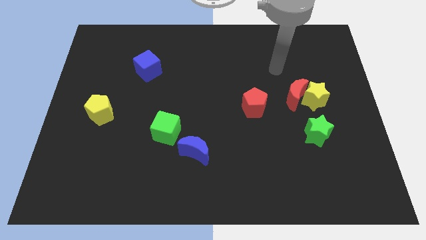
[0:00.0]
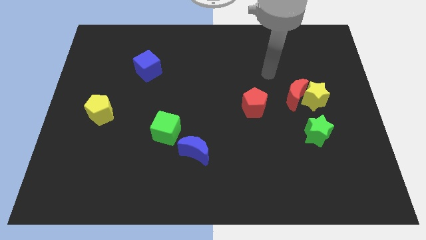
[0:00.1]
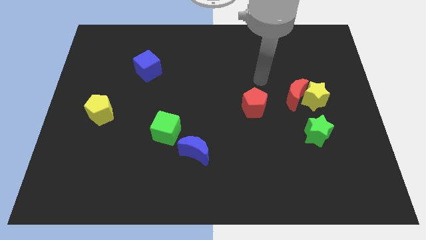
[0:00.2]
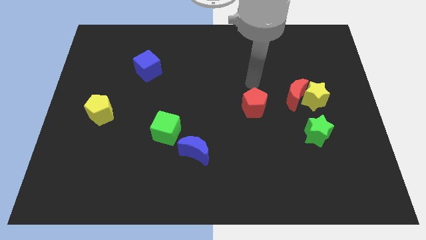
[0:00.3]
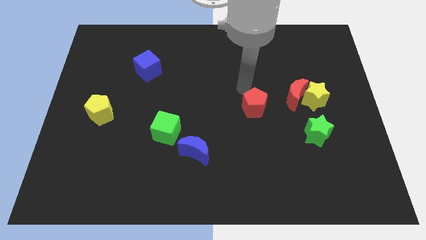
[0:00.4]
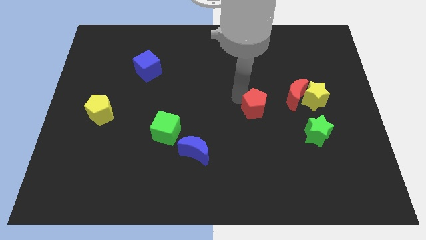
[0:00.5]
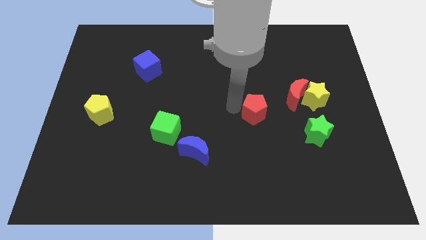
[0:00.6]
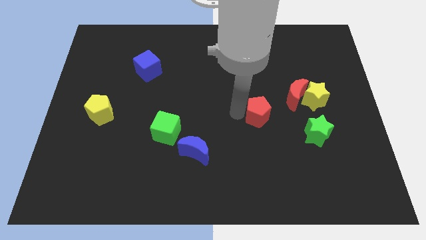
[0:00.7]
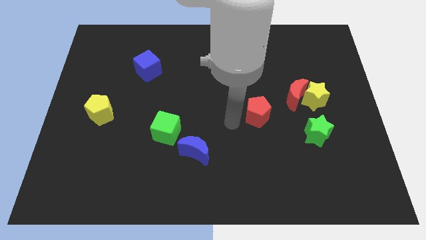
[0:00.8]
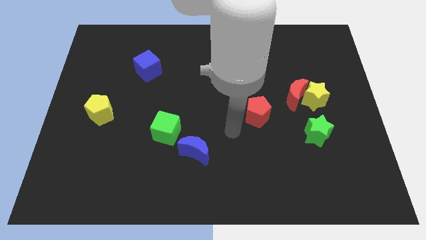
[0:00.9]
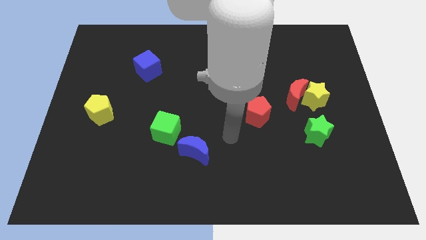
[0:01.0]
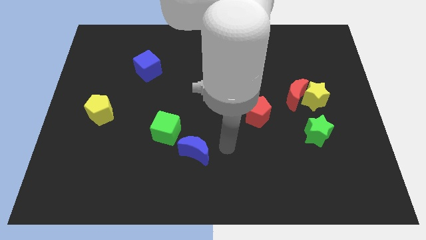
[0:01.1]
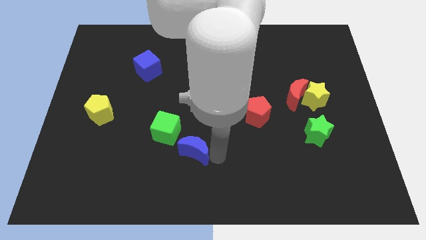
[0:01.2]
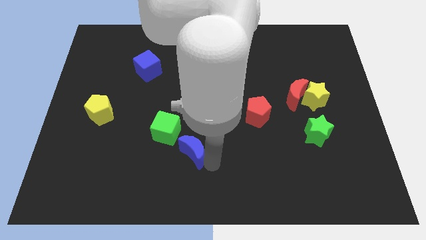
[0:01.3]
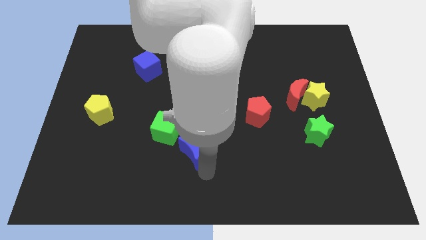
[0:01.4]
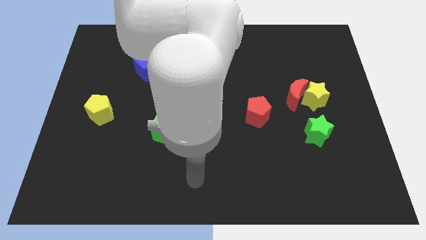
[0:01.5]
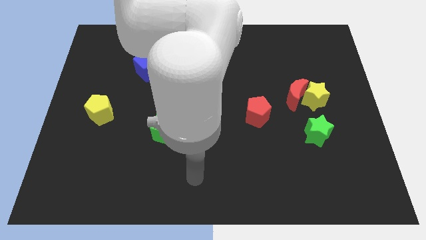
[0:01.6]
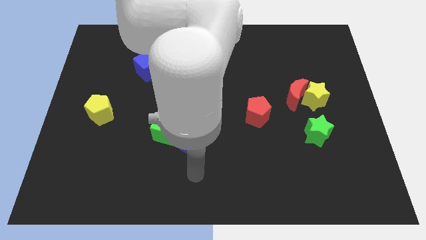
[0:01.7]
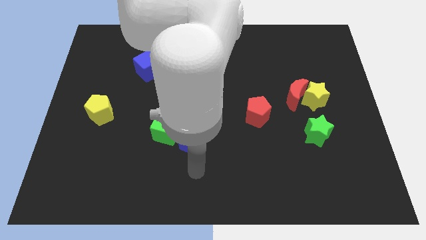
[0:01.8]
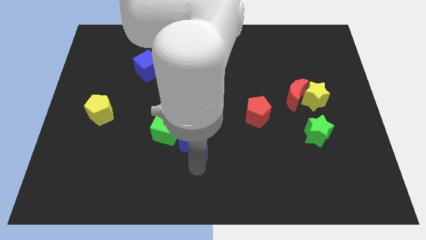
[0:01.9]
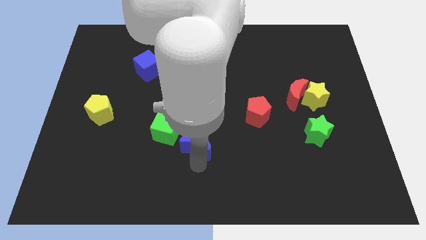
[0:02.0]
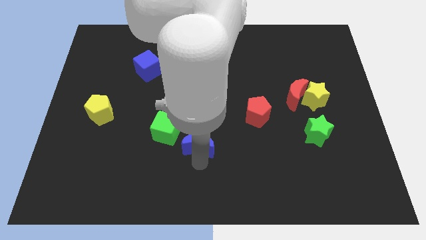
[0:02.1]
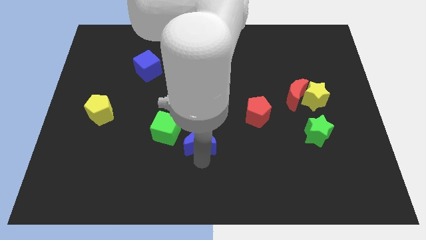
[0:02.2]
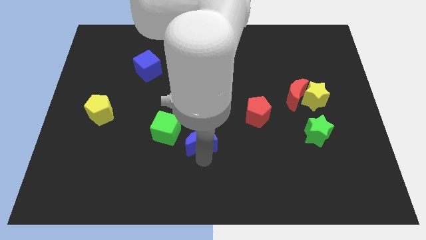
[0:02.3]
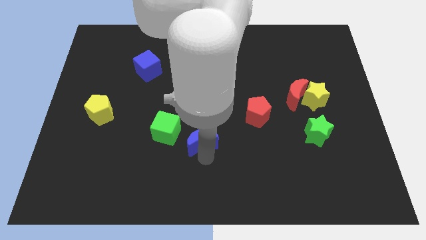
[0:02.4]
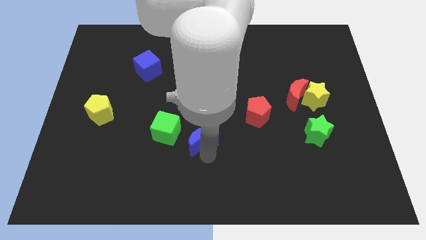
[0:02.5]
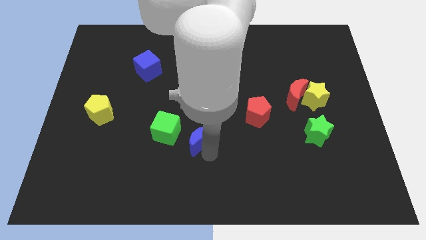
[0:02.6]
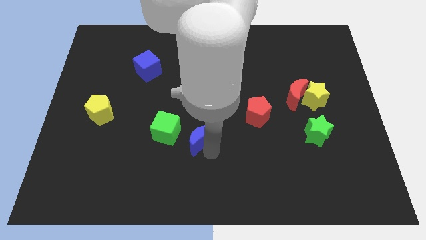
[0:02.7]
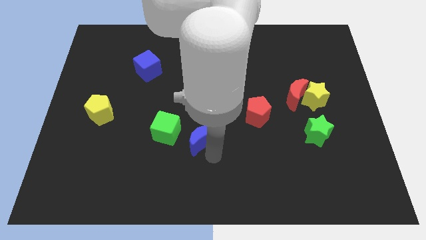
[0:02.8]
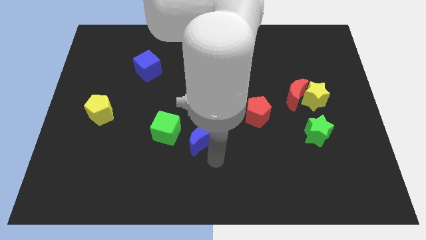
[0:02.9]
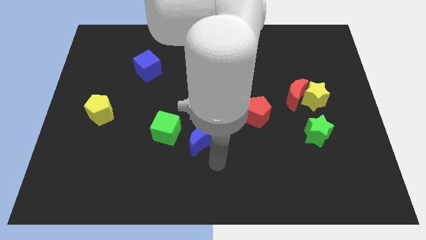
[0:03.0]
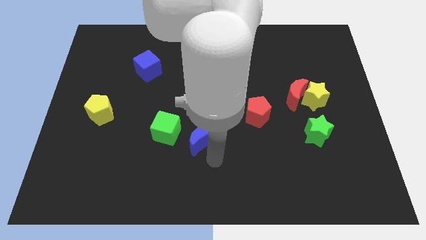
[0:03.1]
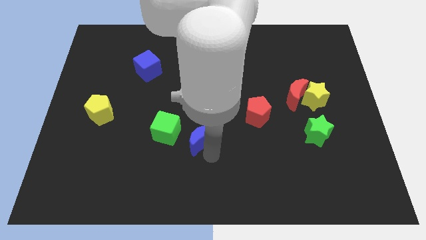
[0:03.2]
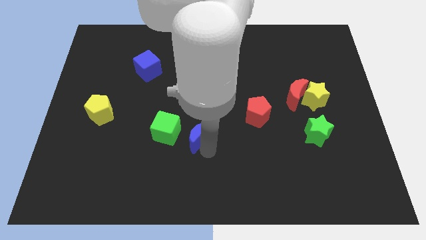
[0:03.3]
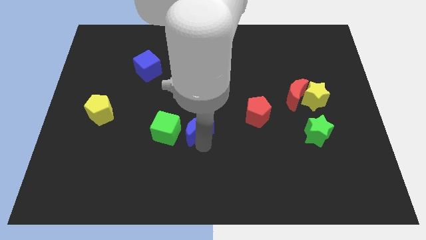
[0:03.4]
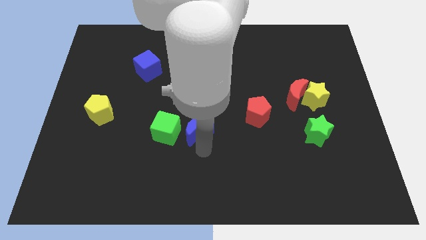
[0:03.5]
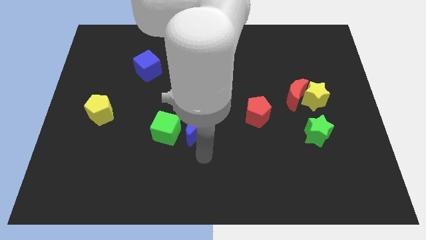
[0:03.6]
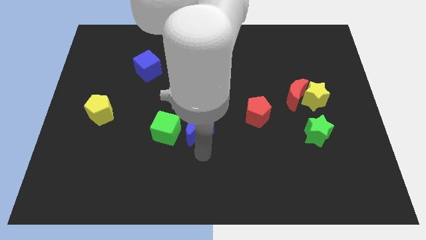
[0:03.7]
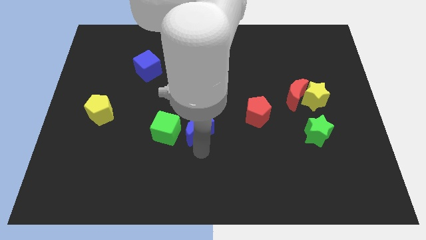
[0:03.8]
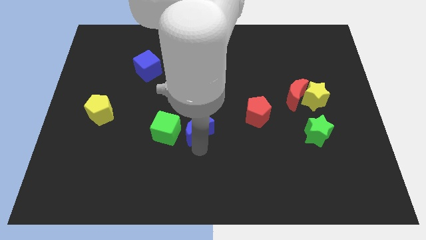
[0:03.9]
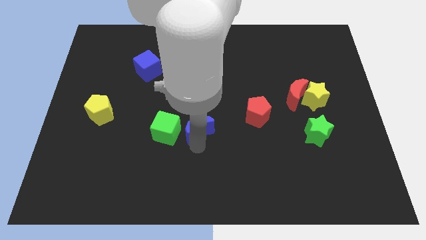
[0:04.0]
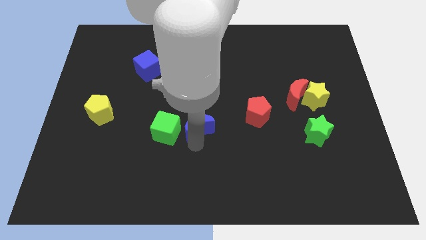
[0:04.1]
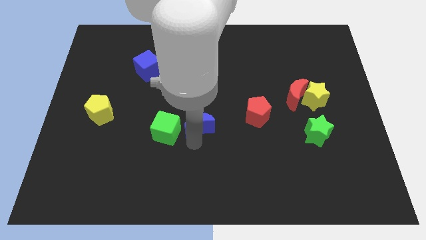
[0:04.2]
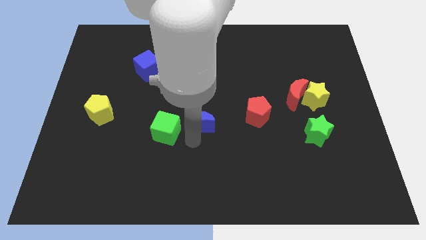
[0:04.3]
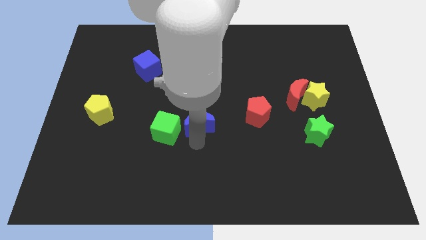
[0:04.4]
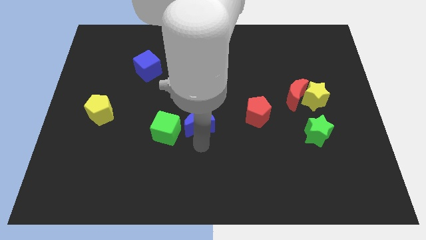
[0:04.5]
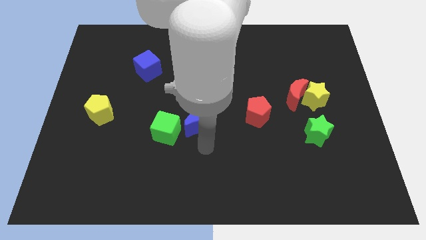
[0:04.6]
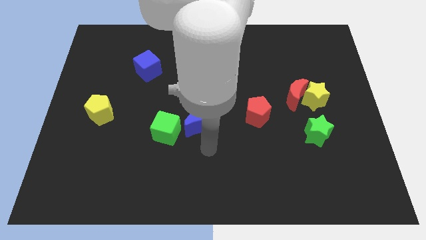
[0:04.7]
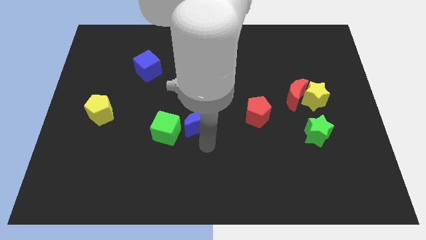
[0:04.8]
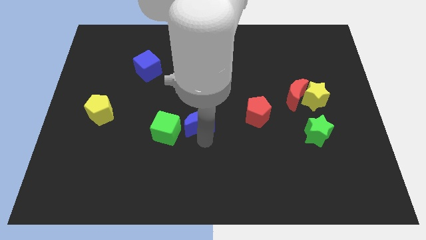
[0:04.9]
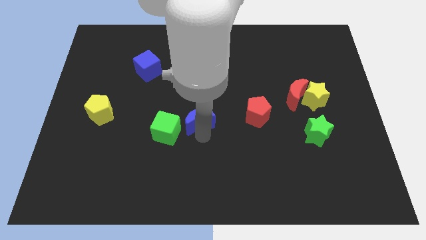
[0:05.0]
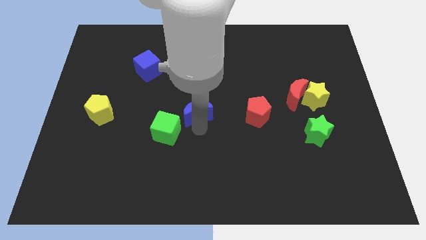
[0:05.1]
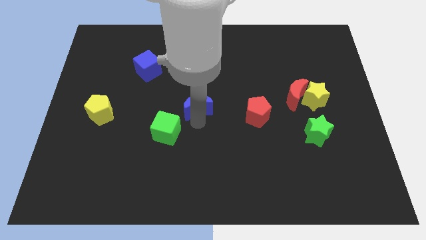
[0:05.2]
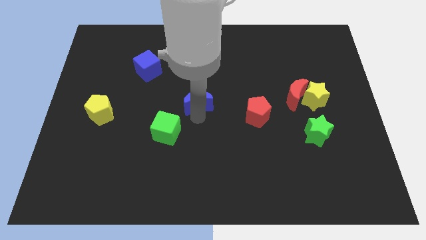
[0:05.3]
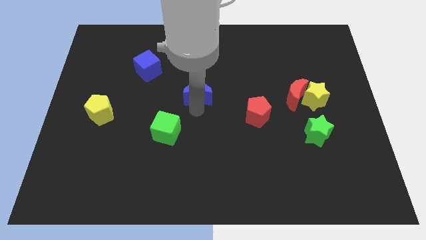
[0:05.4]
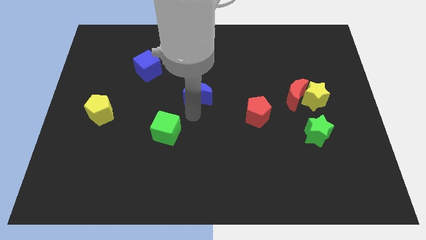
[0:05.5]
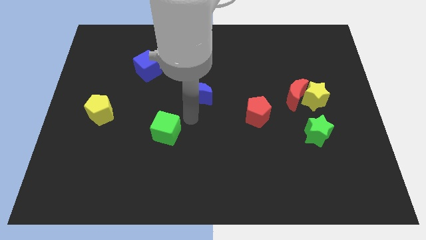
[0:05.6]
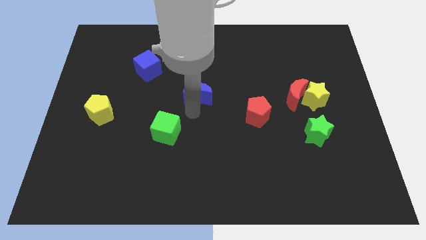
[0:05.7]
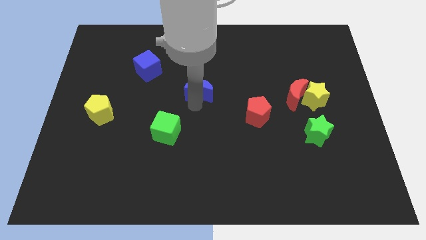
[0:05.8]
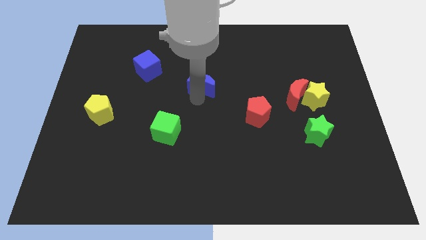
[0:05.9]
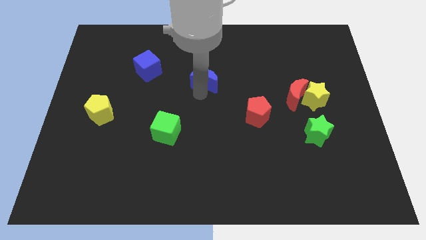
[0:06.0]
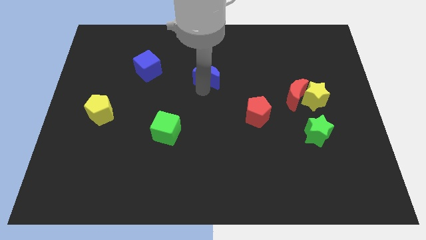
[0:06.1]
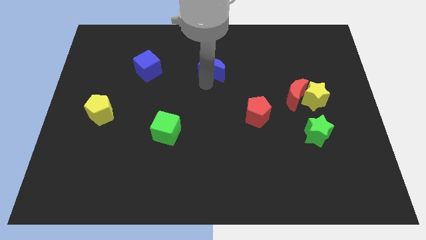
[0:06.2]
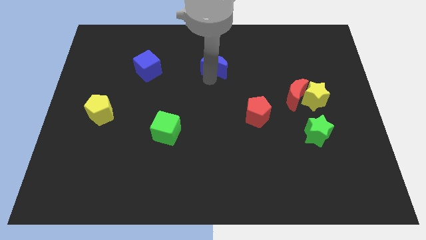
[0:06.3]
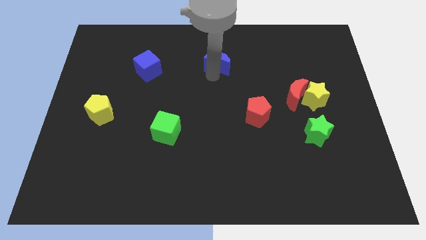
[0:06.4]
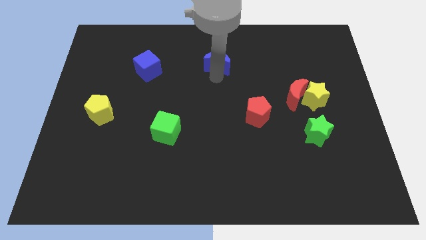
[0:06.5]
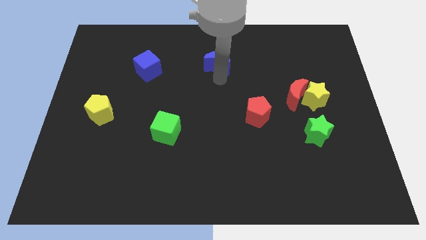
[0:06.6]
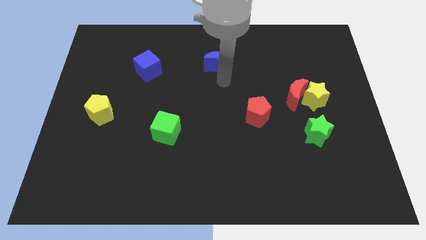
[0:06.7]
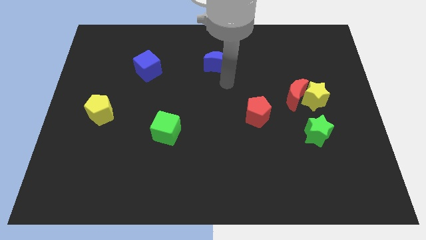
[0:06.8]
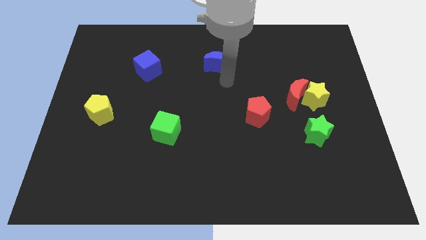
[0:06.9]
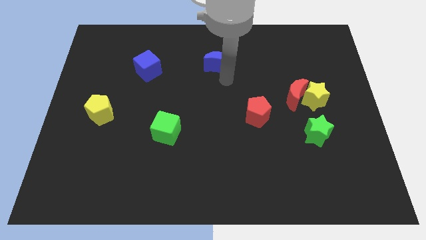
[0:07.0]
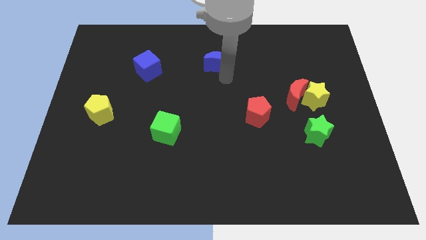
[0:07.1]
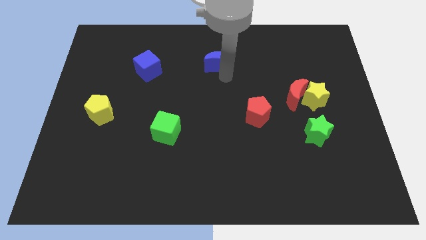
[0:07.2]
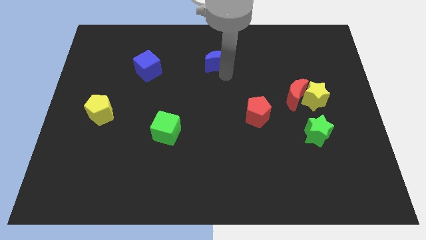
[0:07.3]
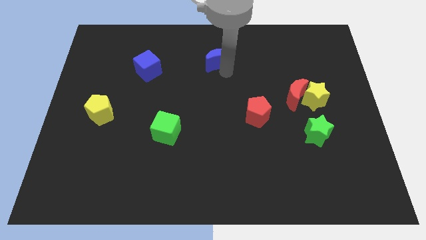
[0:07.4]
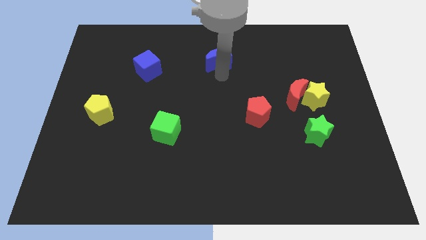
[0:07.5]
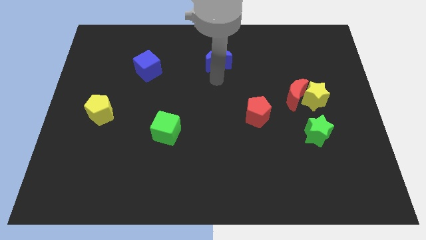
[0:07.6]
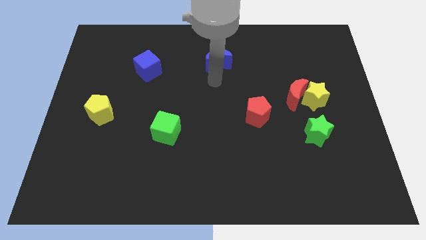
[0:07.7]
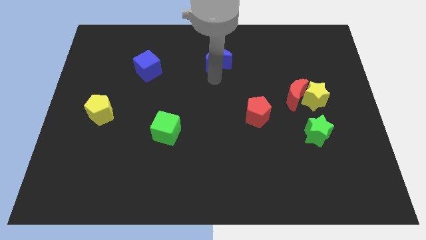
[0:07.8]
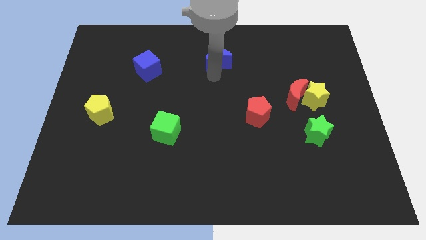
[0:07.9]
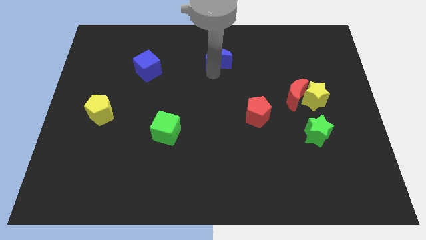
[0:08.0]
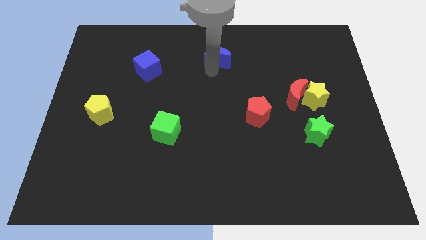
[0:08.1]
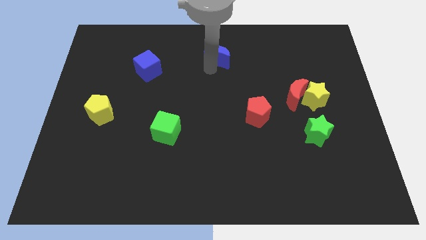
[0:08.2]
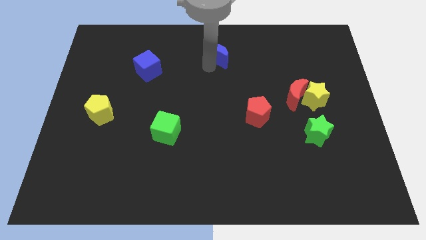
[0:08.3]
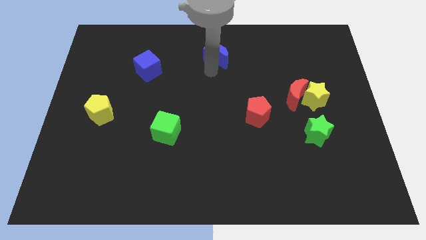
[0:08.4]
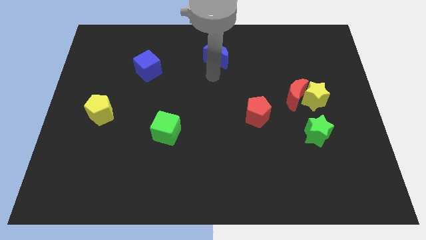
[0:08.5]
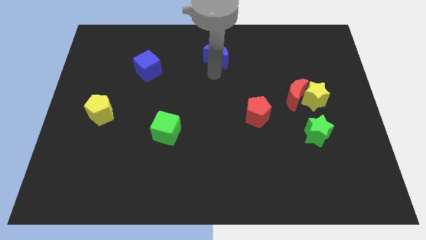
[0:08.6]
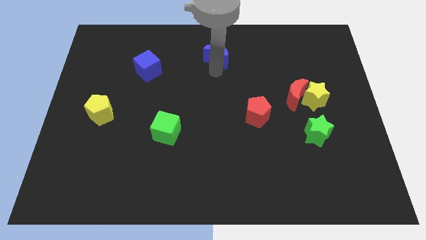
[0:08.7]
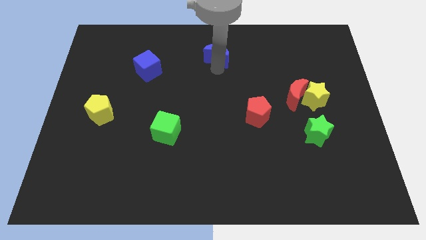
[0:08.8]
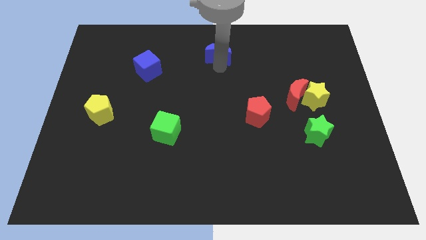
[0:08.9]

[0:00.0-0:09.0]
move the blue moon to the towards your base
